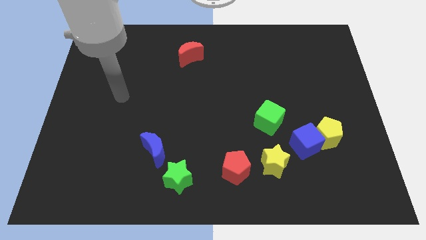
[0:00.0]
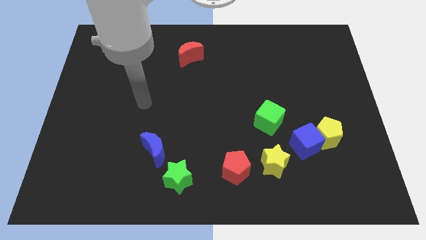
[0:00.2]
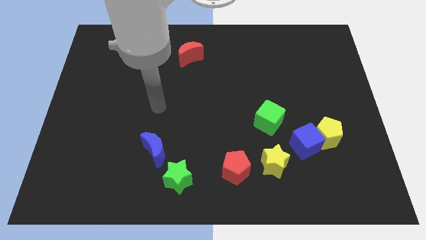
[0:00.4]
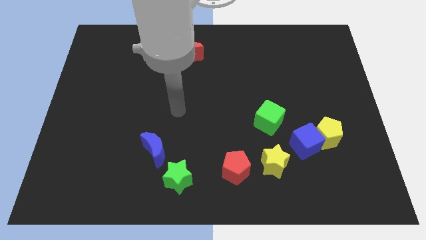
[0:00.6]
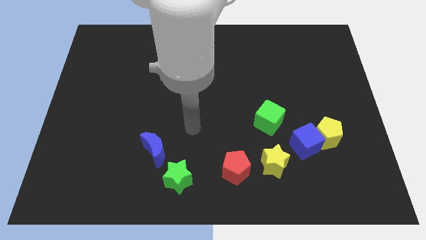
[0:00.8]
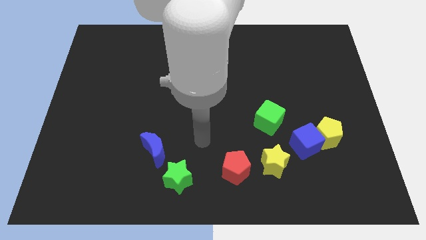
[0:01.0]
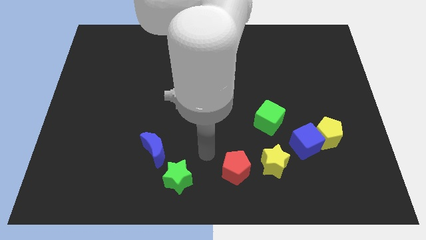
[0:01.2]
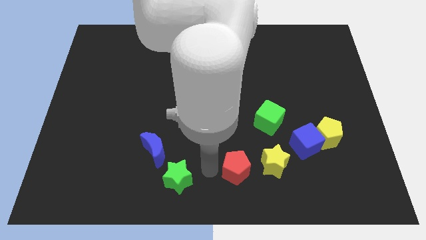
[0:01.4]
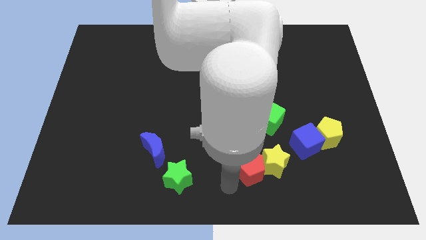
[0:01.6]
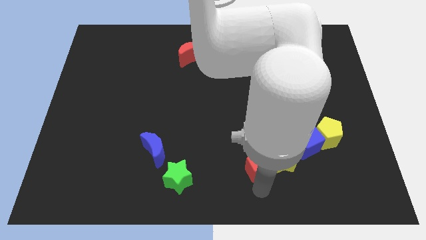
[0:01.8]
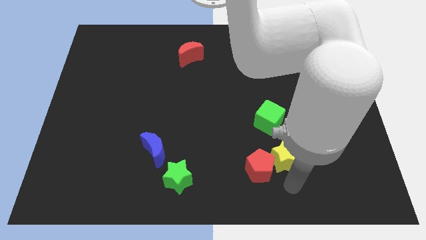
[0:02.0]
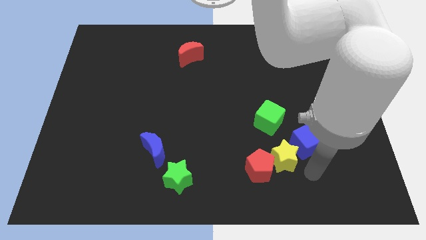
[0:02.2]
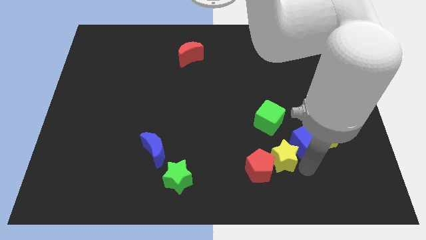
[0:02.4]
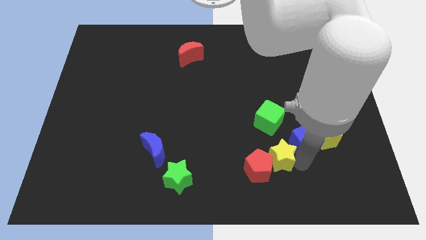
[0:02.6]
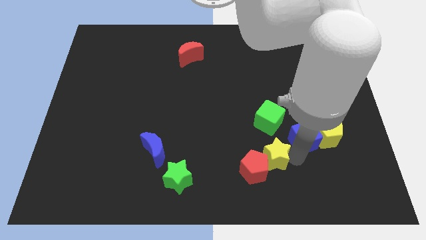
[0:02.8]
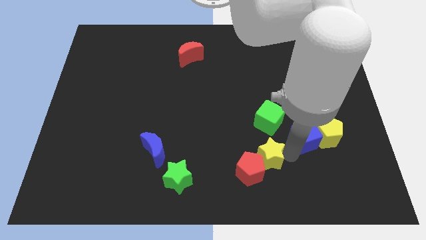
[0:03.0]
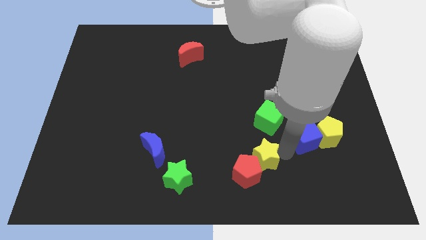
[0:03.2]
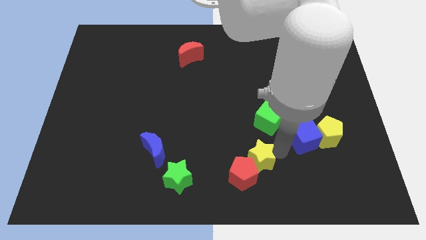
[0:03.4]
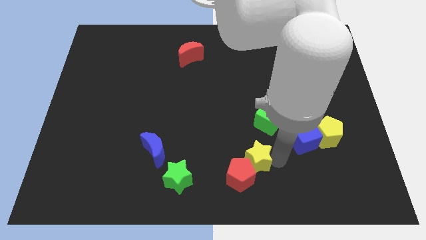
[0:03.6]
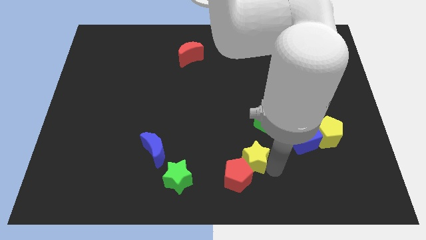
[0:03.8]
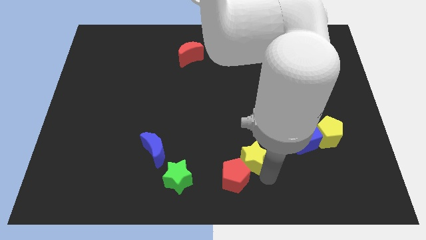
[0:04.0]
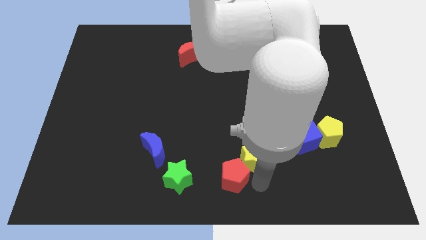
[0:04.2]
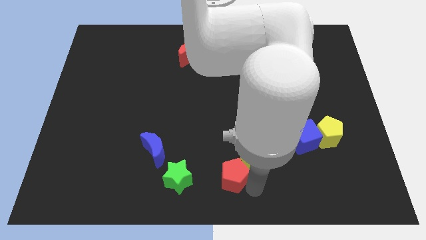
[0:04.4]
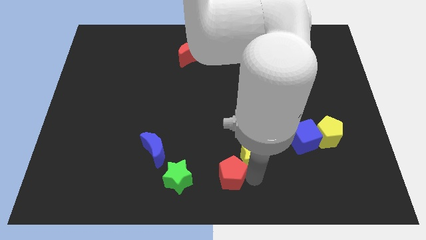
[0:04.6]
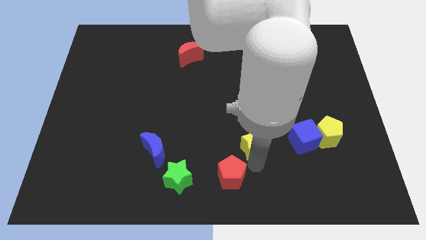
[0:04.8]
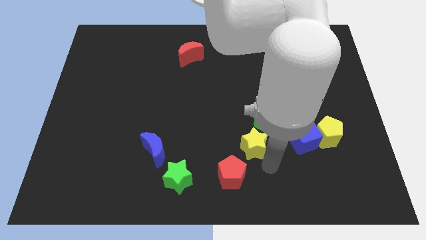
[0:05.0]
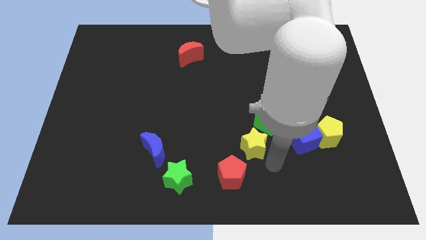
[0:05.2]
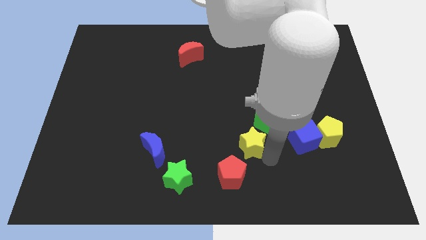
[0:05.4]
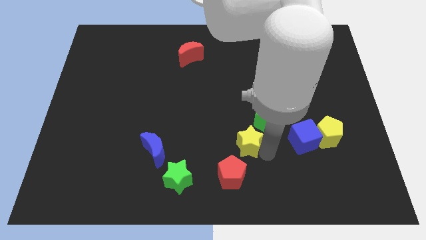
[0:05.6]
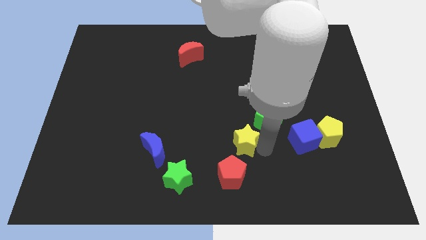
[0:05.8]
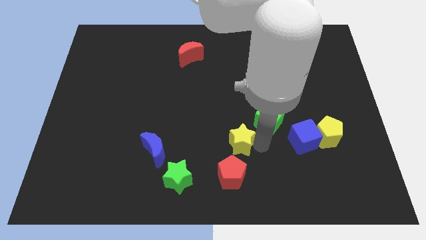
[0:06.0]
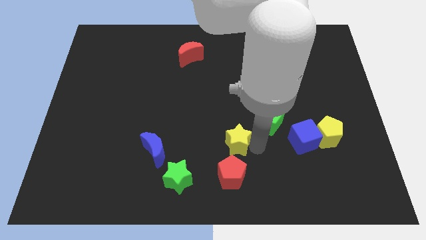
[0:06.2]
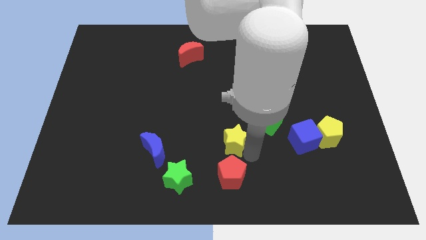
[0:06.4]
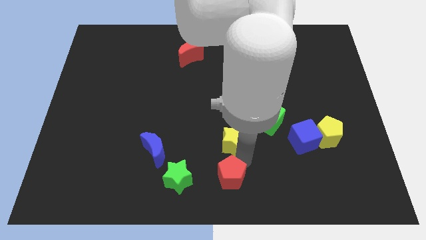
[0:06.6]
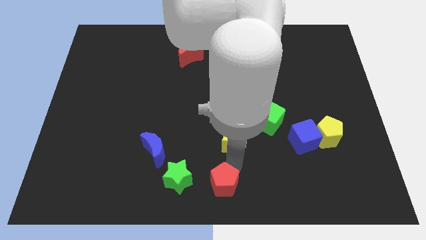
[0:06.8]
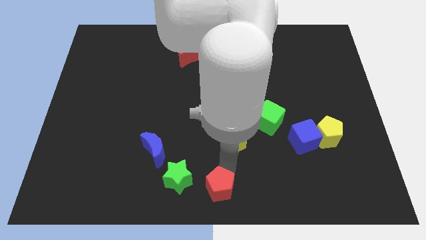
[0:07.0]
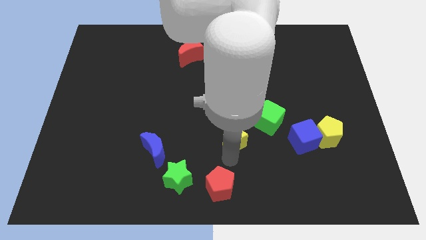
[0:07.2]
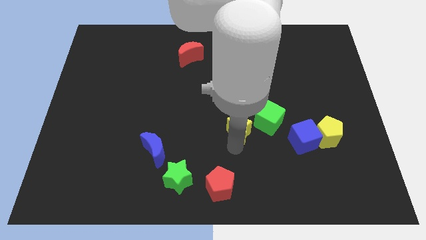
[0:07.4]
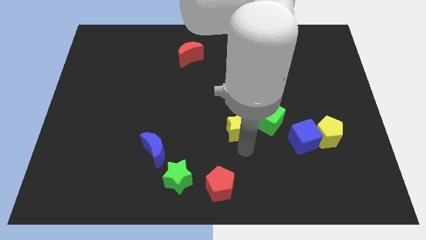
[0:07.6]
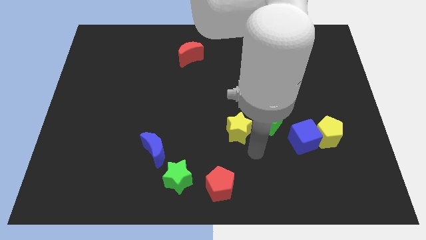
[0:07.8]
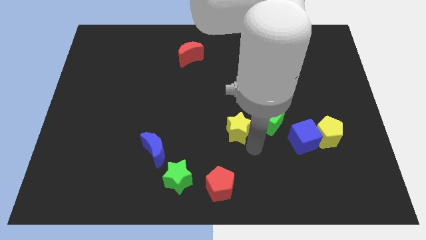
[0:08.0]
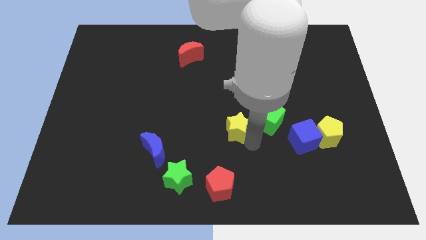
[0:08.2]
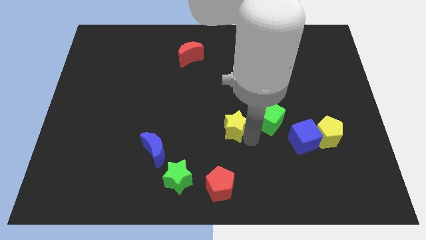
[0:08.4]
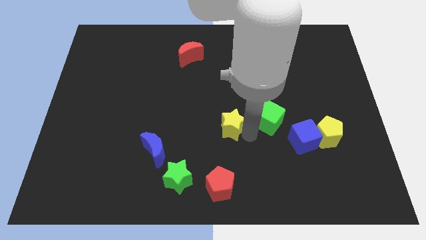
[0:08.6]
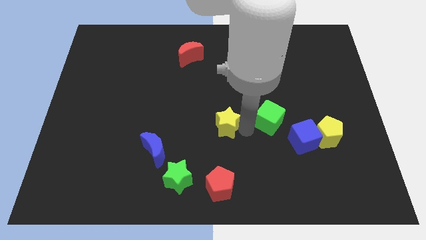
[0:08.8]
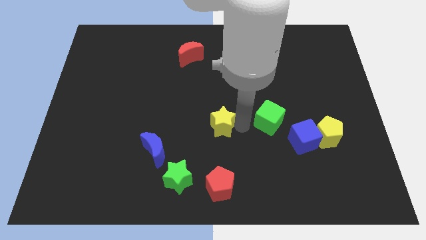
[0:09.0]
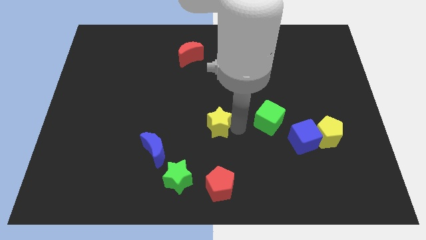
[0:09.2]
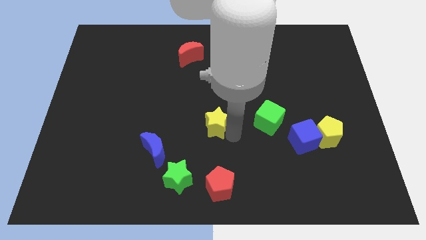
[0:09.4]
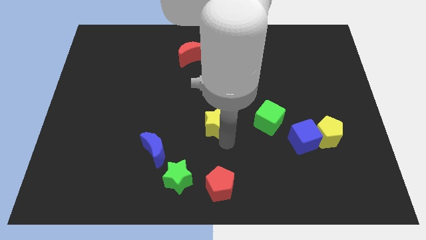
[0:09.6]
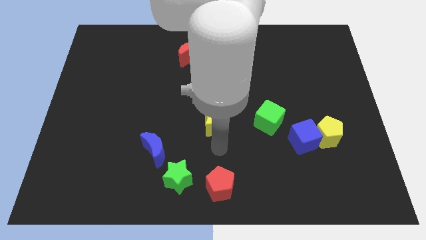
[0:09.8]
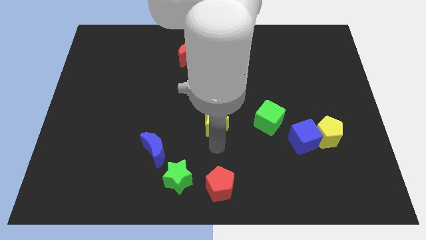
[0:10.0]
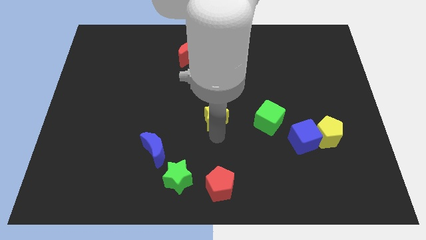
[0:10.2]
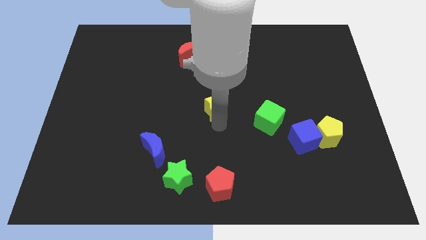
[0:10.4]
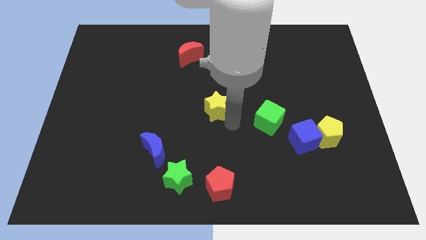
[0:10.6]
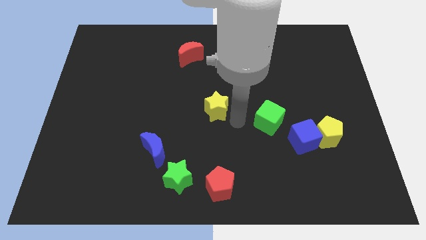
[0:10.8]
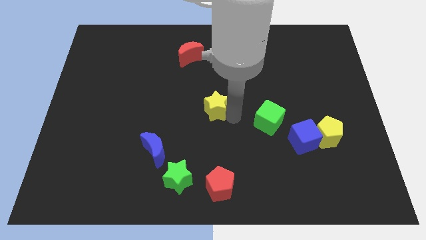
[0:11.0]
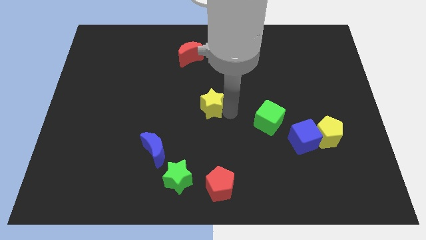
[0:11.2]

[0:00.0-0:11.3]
push the yellow star upwards and then to the left

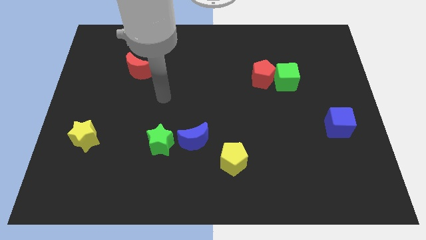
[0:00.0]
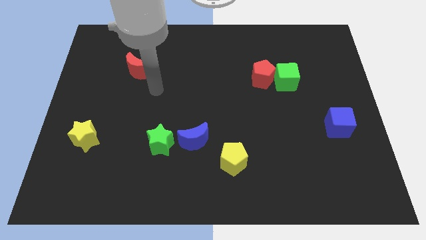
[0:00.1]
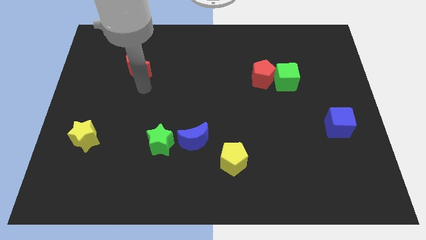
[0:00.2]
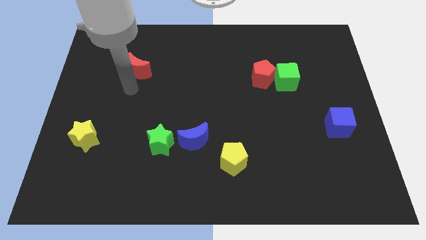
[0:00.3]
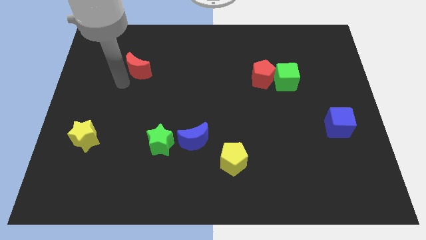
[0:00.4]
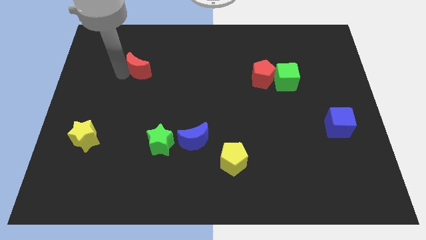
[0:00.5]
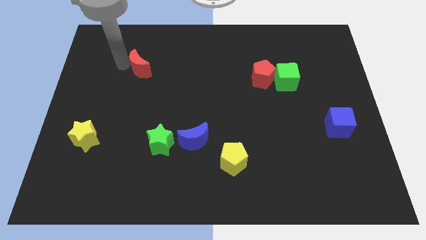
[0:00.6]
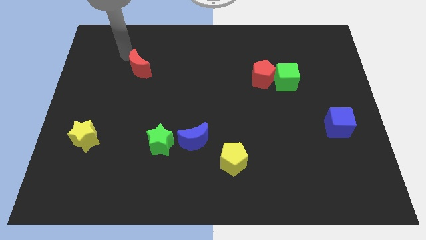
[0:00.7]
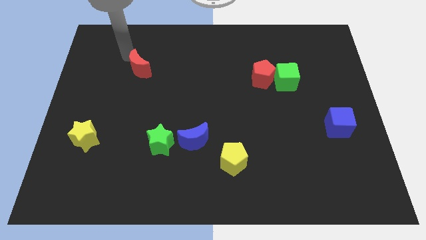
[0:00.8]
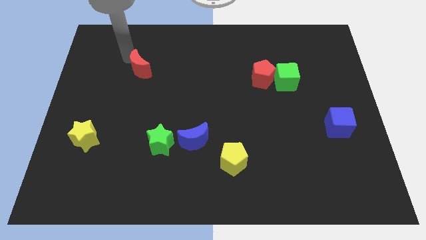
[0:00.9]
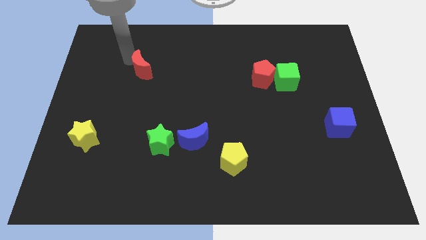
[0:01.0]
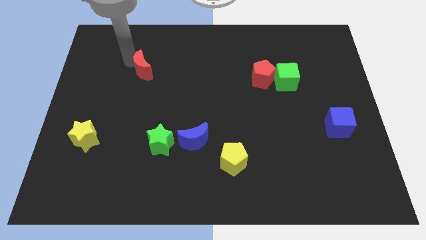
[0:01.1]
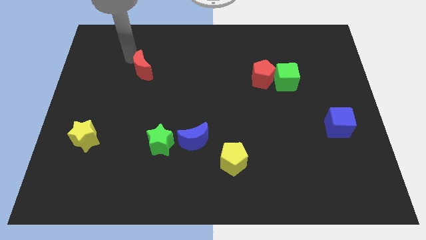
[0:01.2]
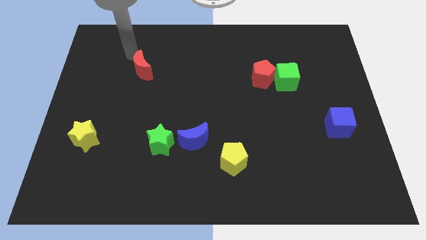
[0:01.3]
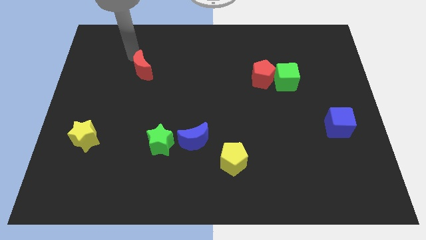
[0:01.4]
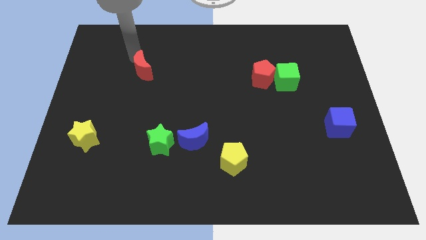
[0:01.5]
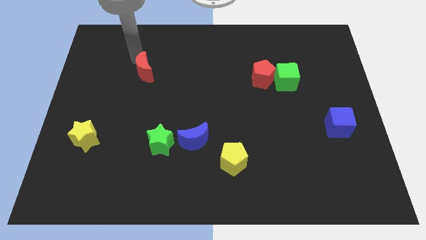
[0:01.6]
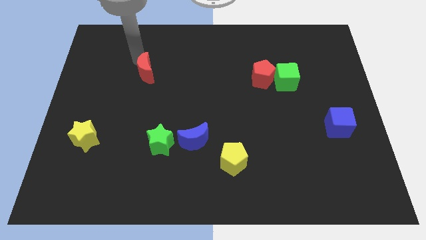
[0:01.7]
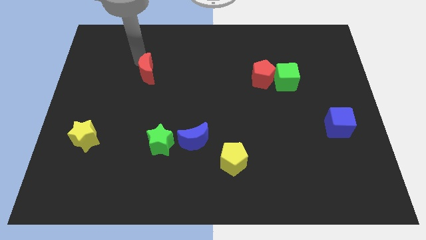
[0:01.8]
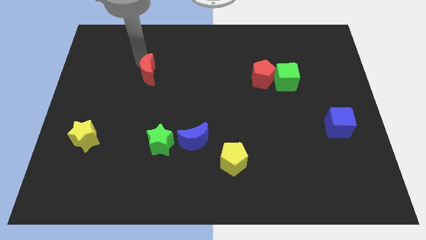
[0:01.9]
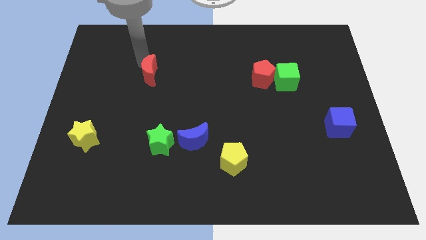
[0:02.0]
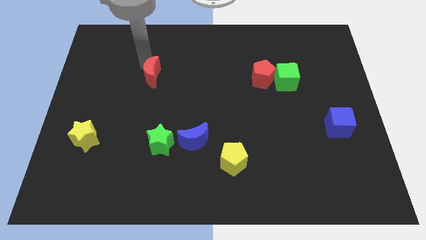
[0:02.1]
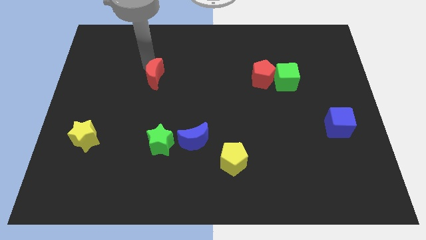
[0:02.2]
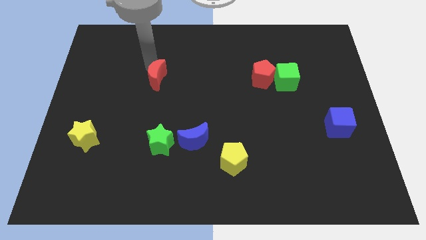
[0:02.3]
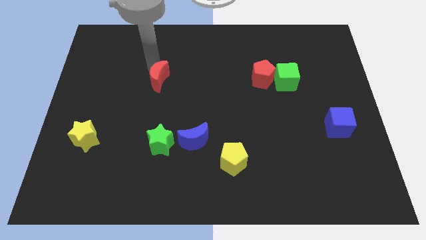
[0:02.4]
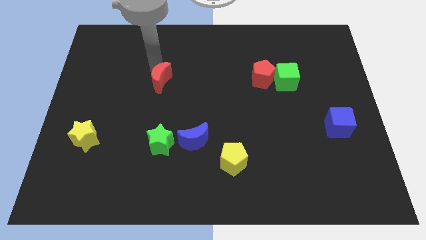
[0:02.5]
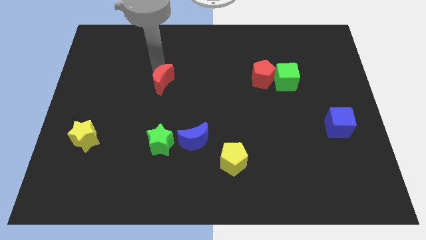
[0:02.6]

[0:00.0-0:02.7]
push the red moon somewhat downwards and to the right diagonally
